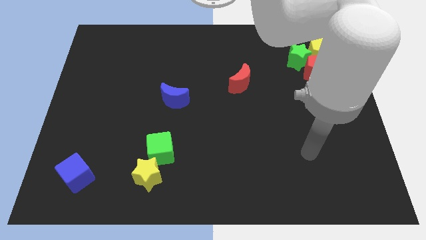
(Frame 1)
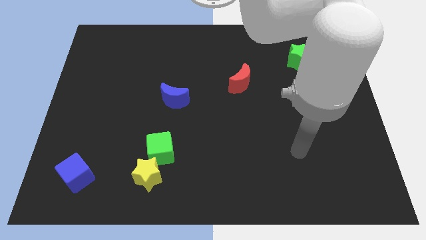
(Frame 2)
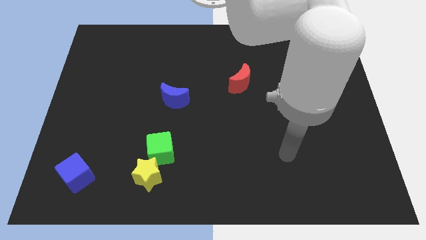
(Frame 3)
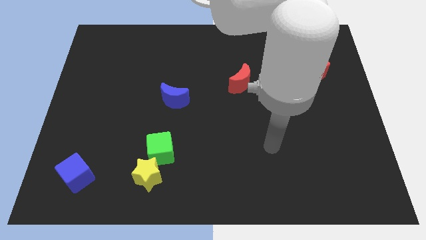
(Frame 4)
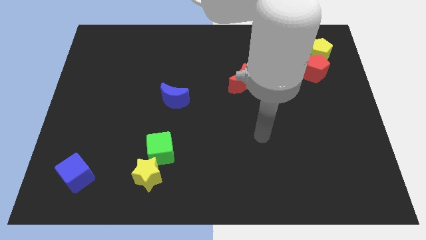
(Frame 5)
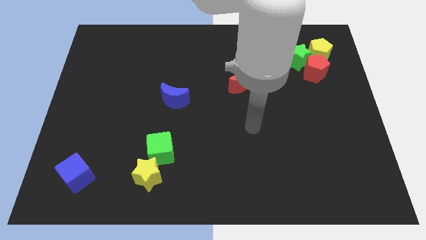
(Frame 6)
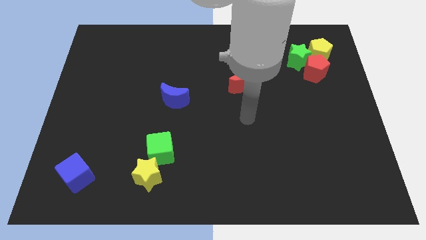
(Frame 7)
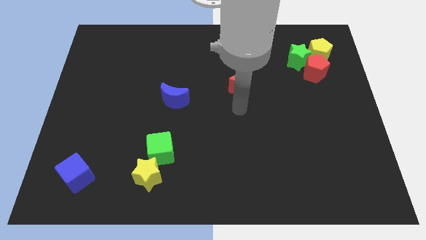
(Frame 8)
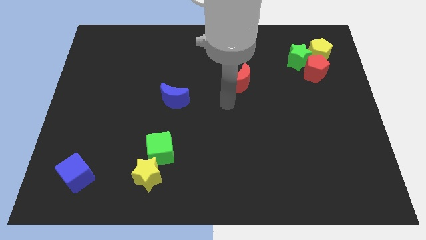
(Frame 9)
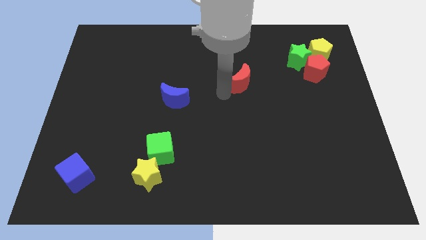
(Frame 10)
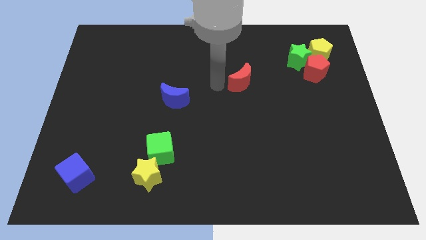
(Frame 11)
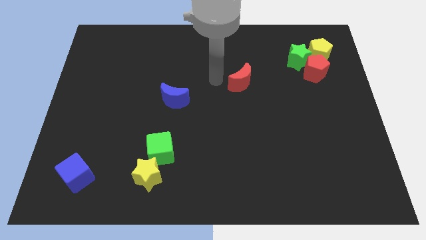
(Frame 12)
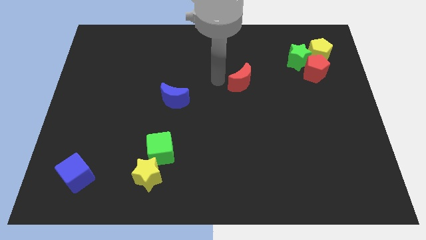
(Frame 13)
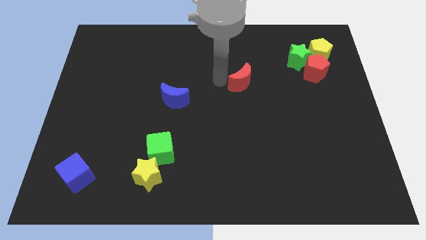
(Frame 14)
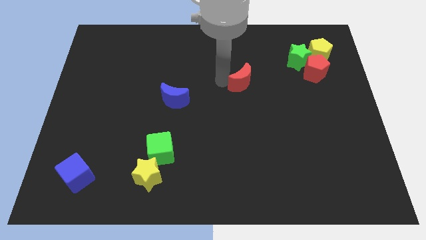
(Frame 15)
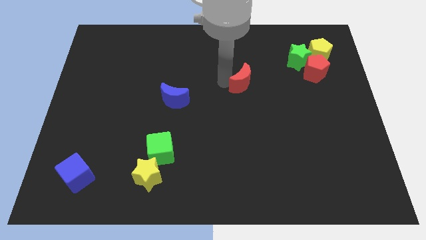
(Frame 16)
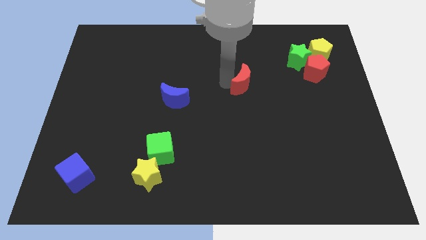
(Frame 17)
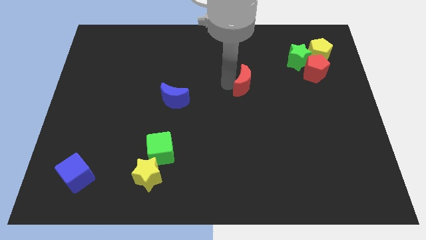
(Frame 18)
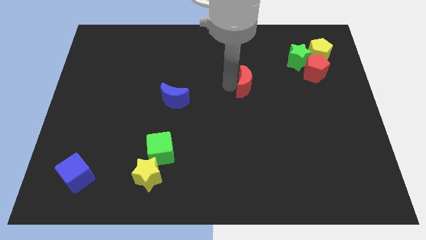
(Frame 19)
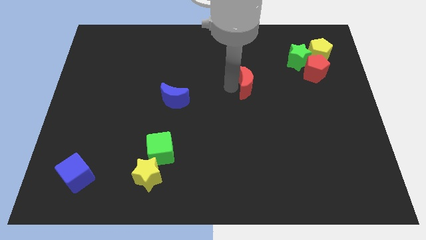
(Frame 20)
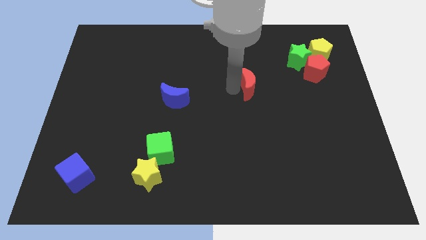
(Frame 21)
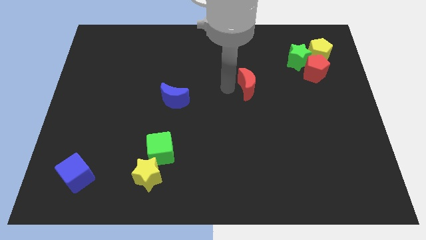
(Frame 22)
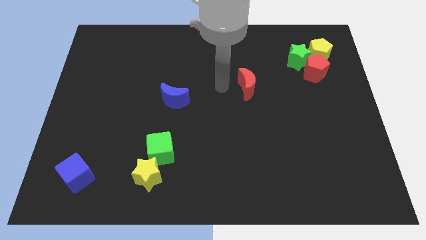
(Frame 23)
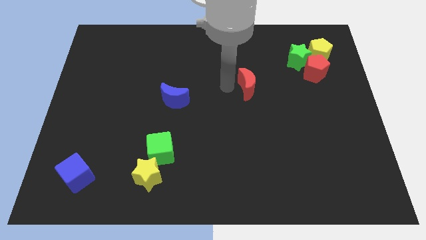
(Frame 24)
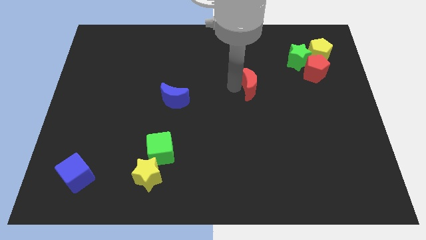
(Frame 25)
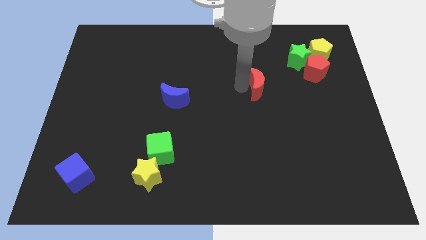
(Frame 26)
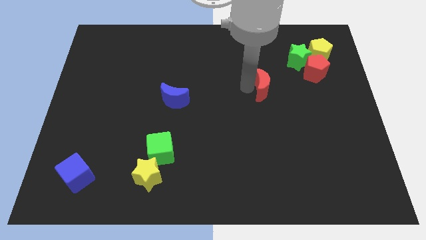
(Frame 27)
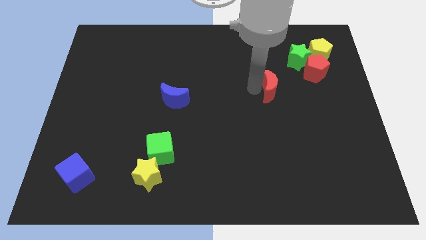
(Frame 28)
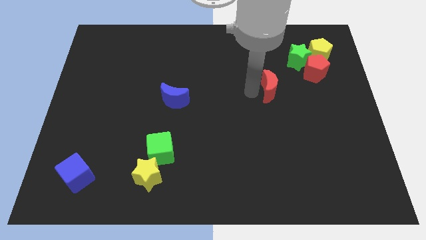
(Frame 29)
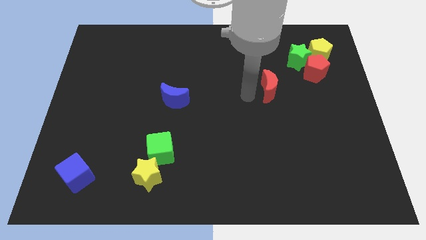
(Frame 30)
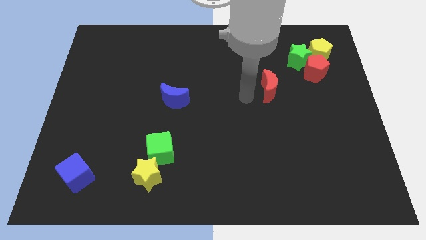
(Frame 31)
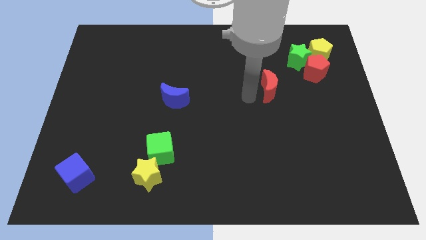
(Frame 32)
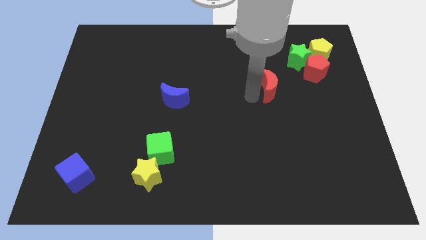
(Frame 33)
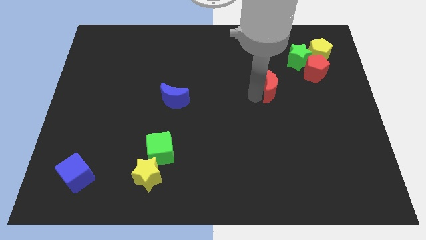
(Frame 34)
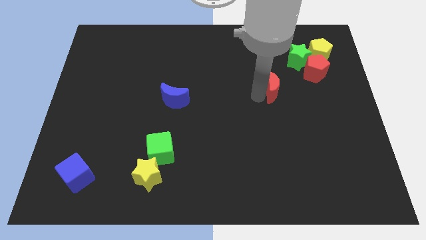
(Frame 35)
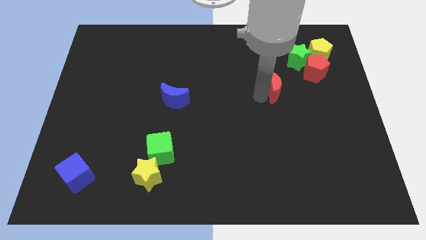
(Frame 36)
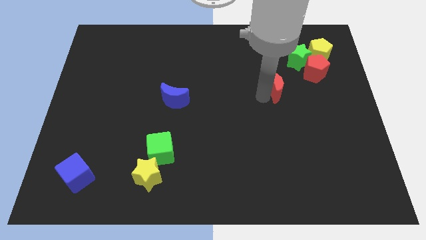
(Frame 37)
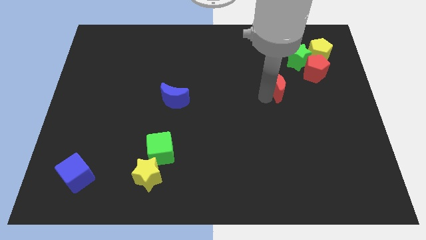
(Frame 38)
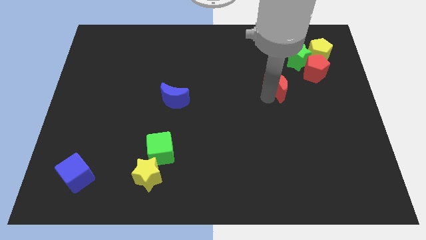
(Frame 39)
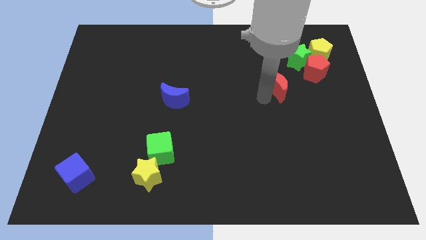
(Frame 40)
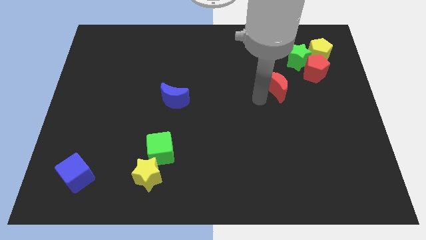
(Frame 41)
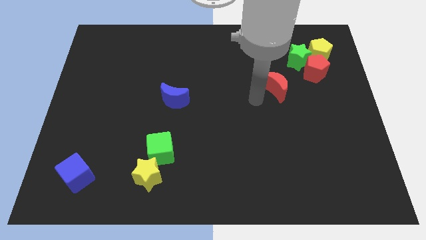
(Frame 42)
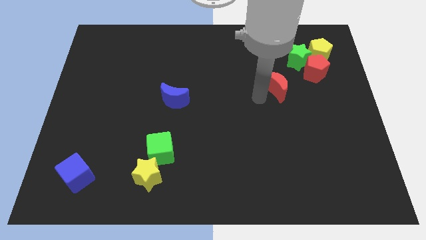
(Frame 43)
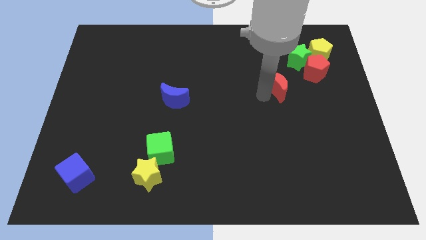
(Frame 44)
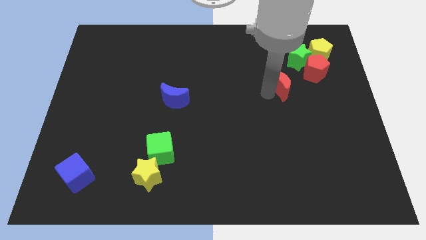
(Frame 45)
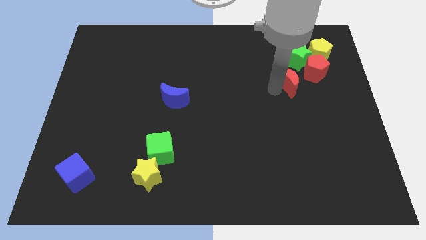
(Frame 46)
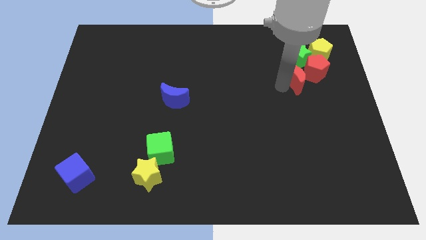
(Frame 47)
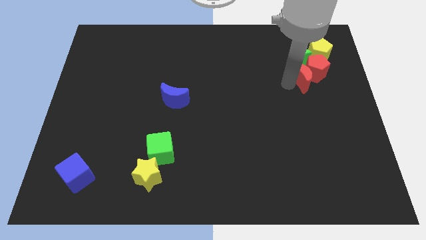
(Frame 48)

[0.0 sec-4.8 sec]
push the red moon next to the red pentagon

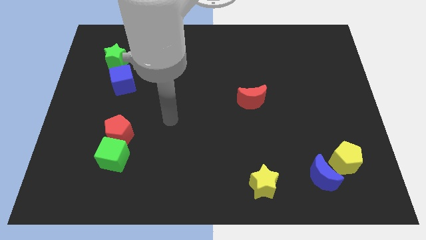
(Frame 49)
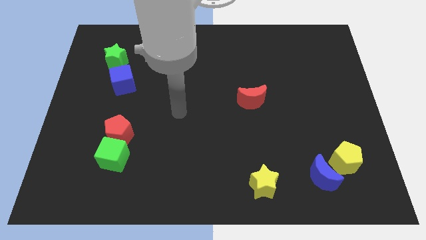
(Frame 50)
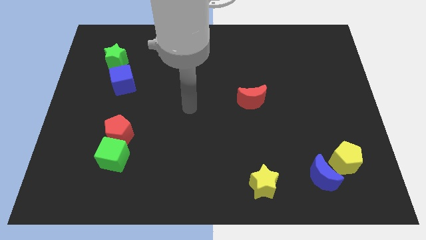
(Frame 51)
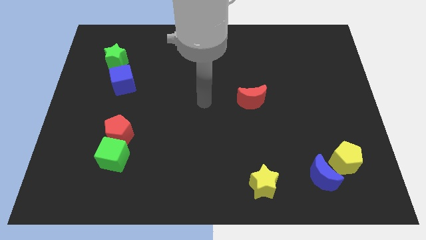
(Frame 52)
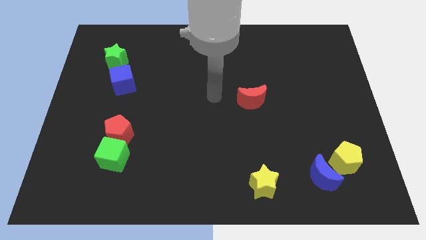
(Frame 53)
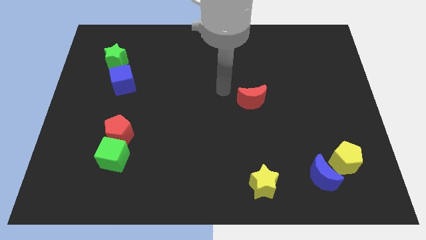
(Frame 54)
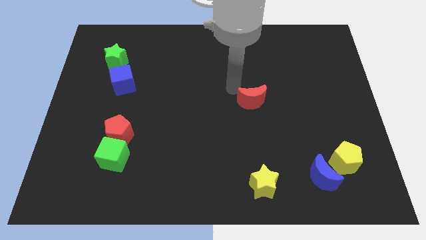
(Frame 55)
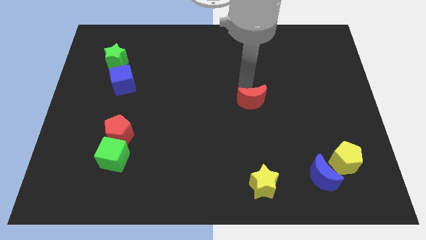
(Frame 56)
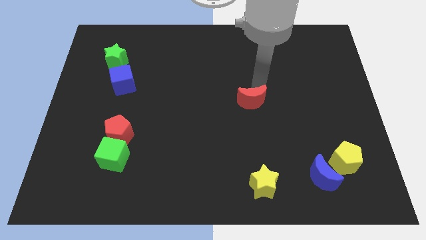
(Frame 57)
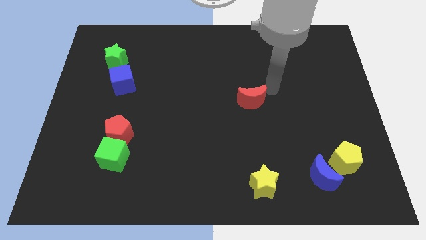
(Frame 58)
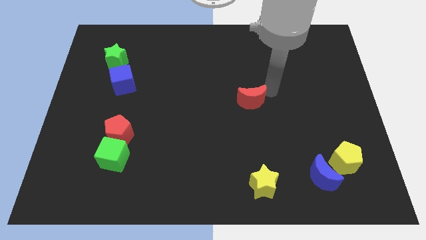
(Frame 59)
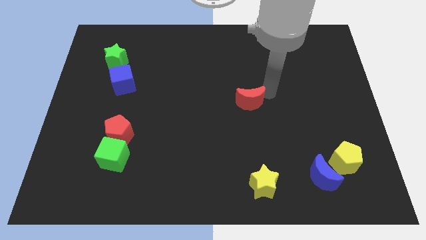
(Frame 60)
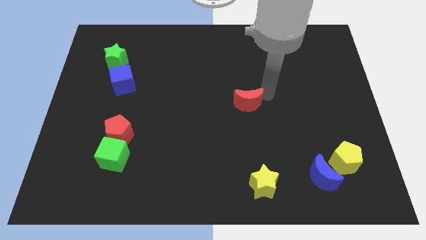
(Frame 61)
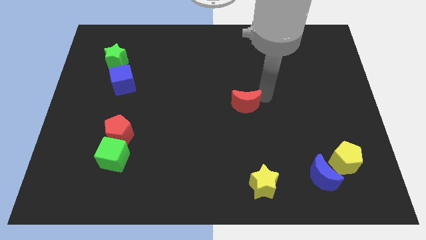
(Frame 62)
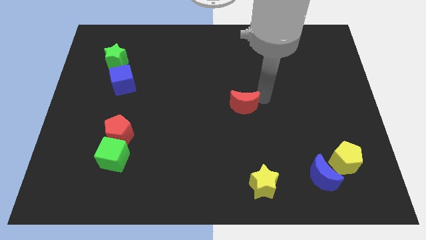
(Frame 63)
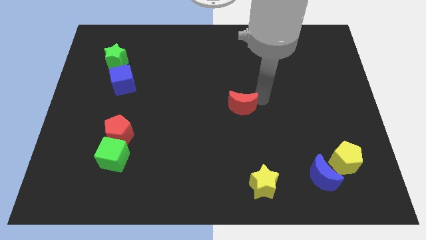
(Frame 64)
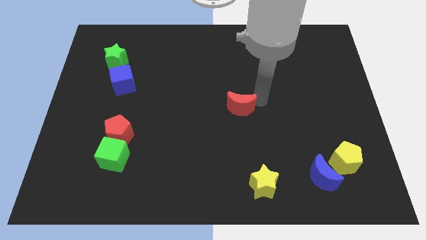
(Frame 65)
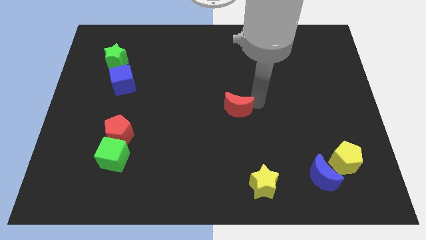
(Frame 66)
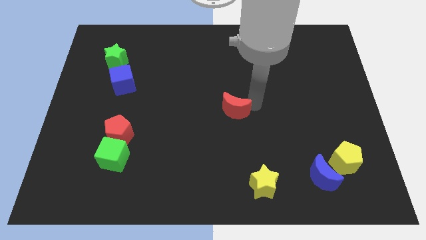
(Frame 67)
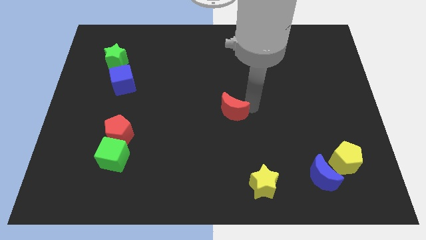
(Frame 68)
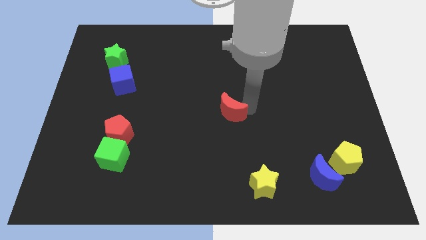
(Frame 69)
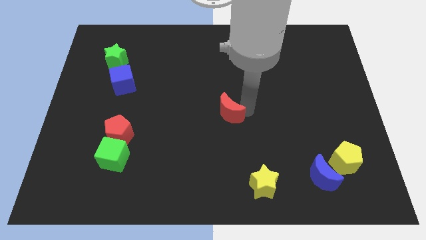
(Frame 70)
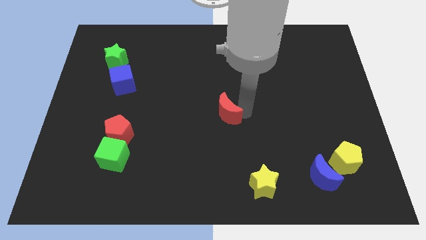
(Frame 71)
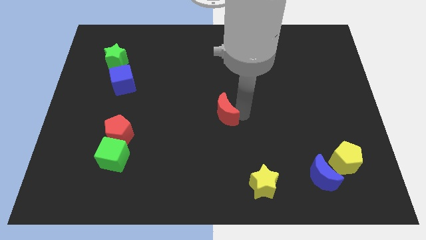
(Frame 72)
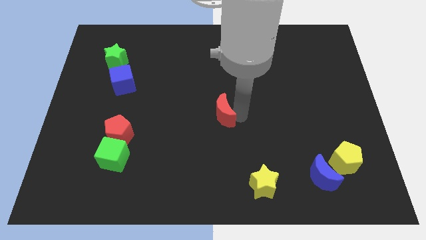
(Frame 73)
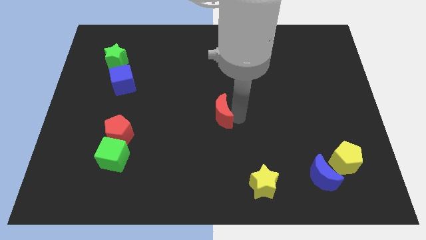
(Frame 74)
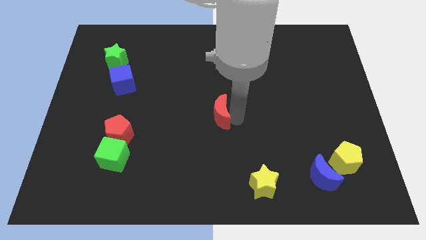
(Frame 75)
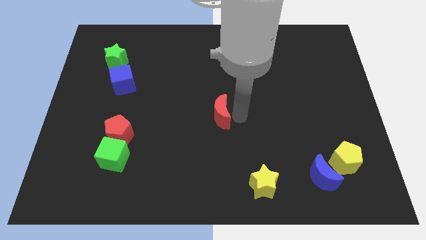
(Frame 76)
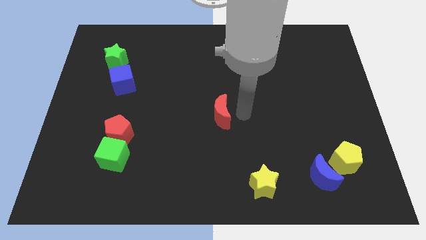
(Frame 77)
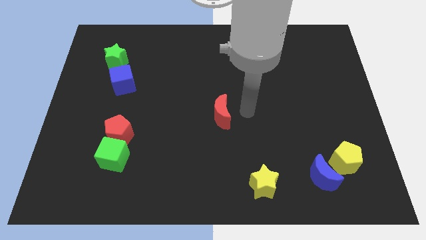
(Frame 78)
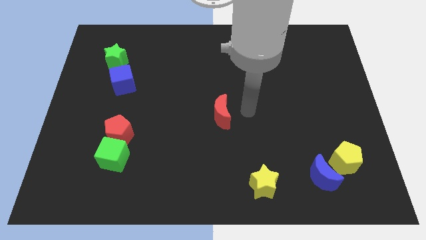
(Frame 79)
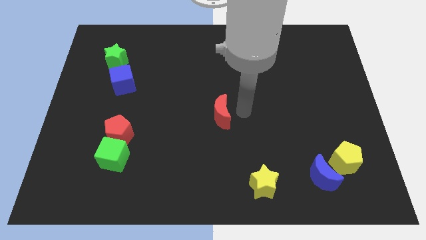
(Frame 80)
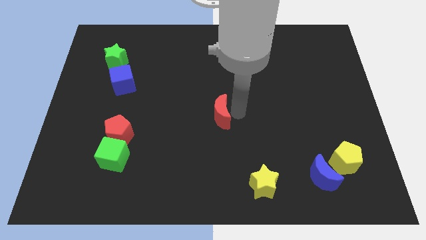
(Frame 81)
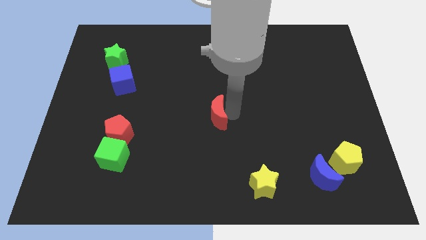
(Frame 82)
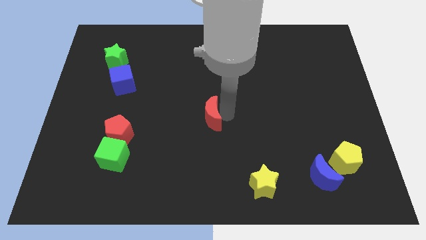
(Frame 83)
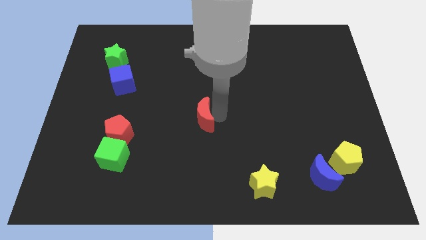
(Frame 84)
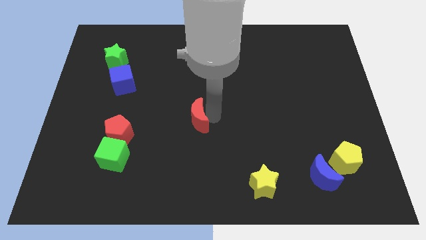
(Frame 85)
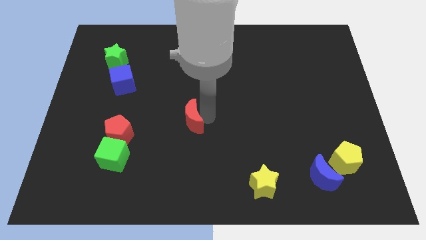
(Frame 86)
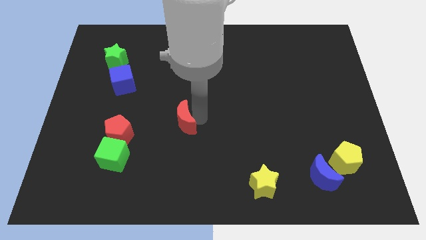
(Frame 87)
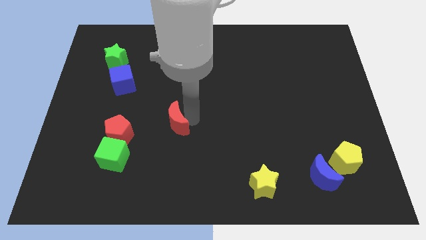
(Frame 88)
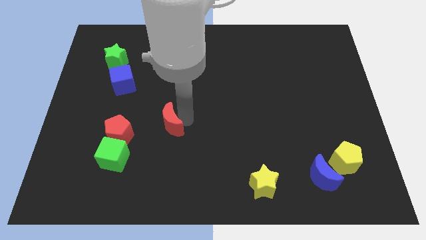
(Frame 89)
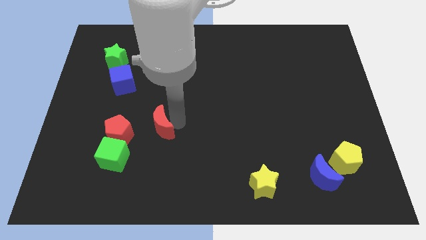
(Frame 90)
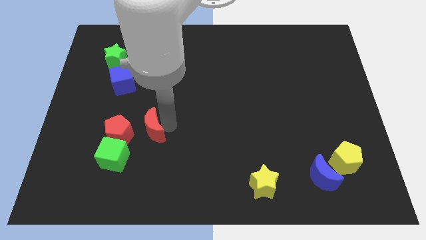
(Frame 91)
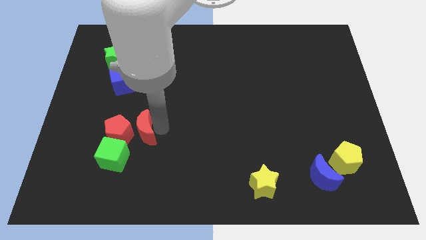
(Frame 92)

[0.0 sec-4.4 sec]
move the red moon next to the red pentagon
